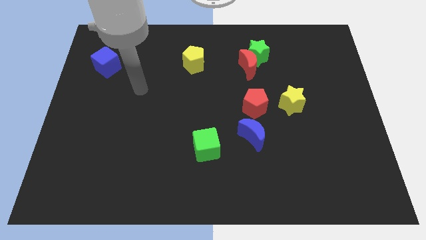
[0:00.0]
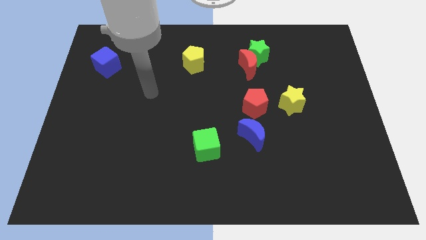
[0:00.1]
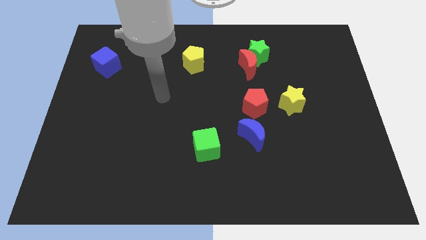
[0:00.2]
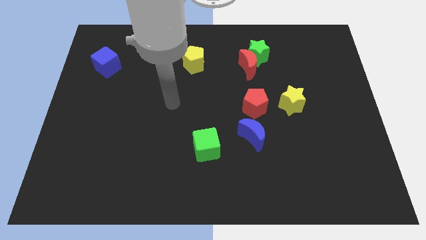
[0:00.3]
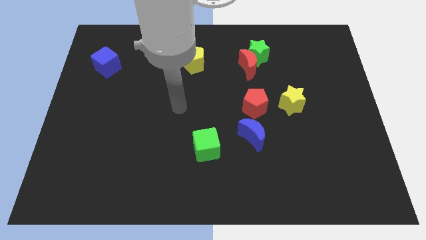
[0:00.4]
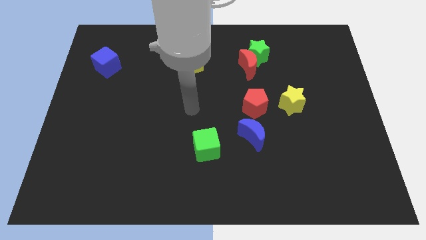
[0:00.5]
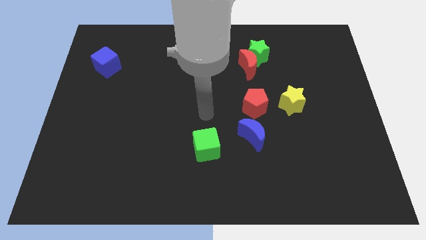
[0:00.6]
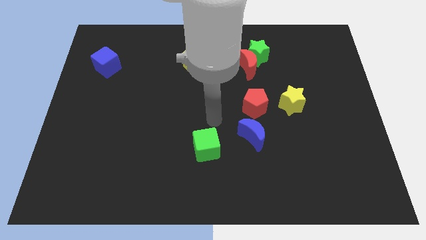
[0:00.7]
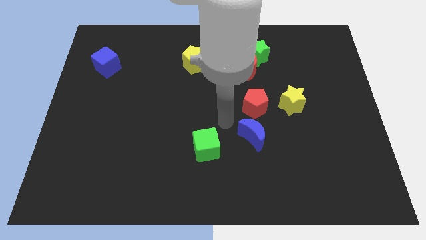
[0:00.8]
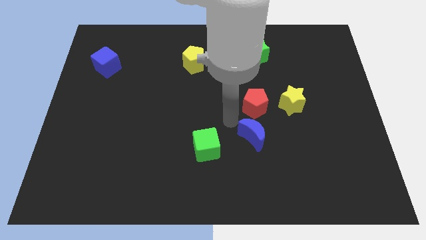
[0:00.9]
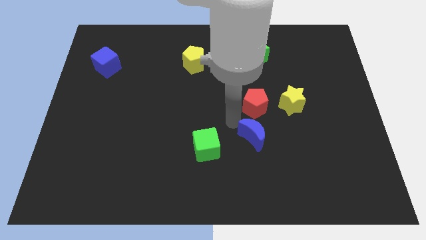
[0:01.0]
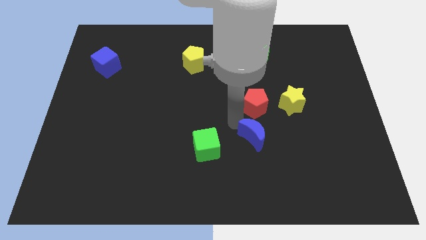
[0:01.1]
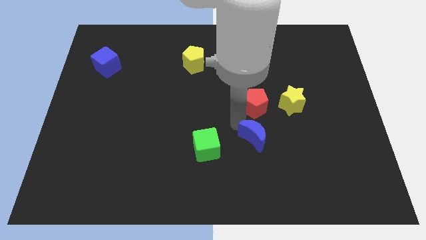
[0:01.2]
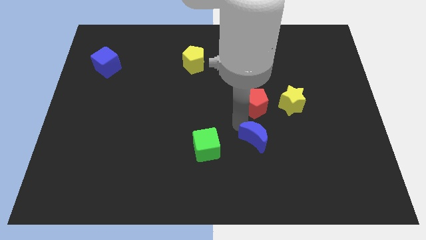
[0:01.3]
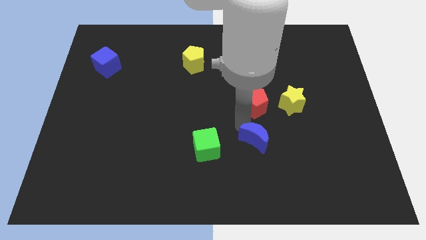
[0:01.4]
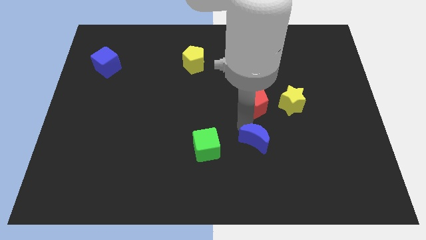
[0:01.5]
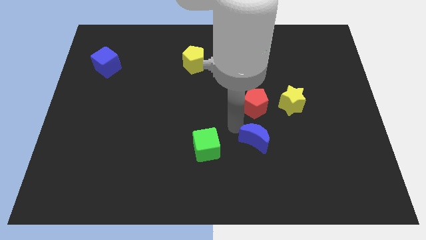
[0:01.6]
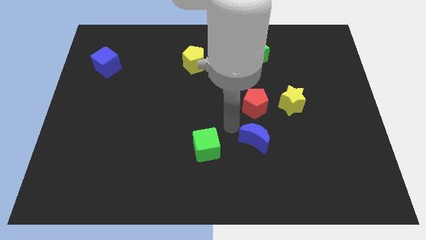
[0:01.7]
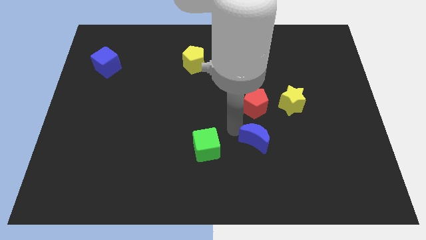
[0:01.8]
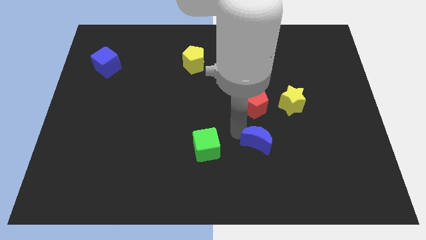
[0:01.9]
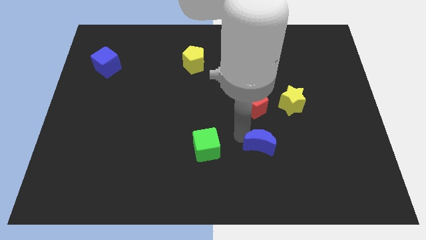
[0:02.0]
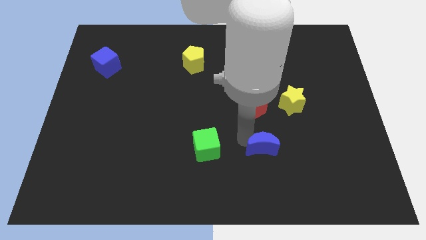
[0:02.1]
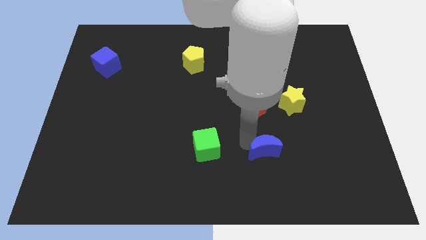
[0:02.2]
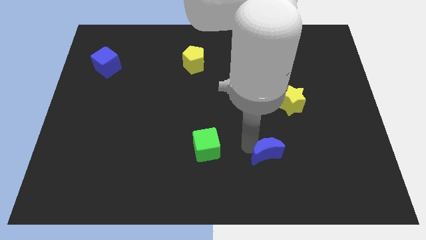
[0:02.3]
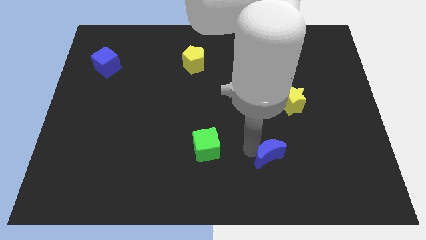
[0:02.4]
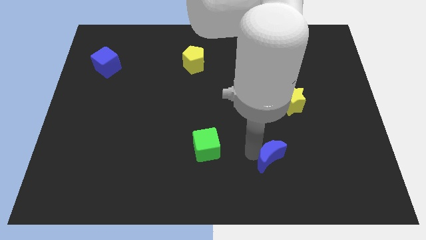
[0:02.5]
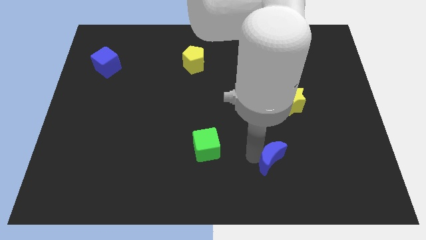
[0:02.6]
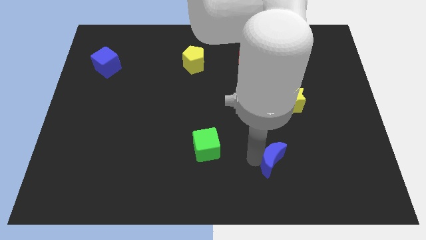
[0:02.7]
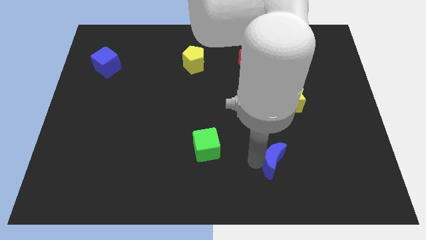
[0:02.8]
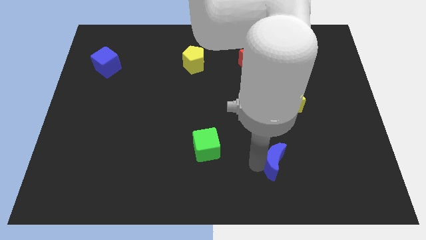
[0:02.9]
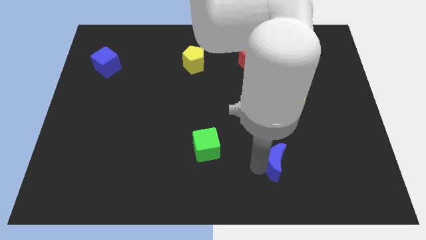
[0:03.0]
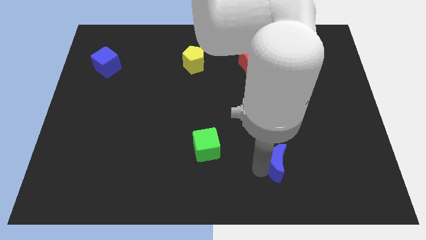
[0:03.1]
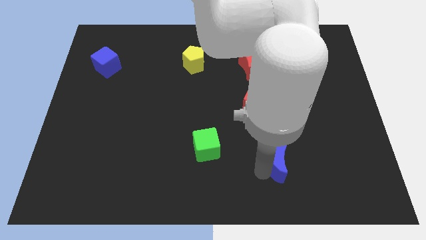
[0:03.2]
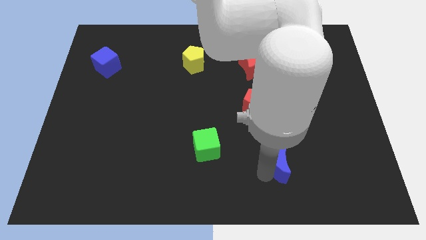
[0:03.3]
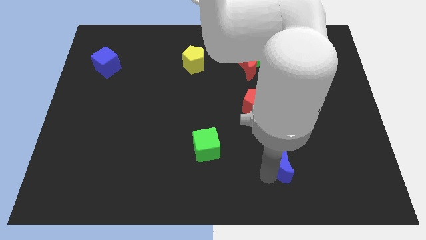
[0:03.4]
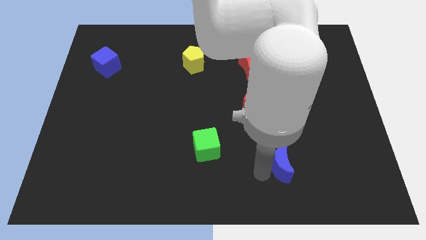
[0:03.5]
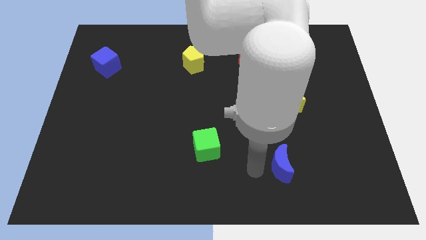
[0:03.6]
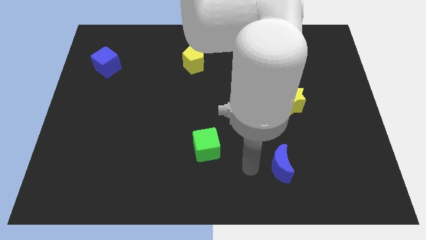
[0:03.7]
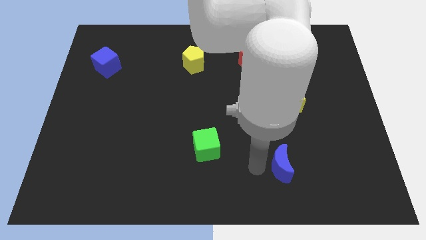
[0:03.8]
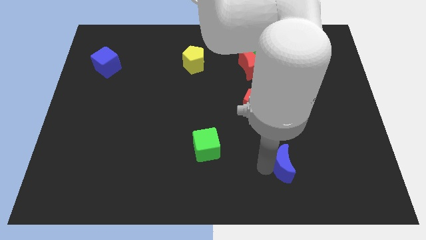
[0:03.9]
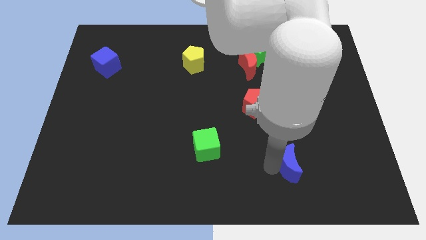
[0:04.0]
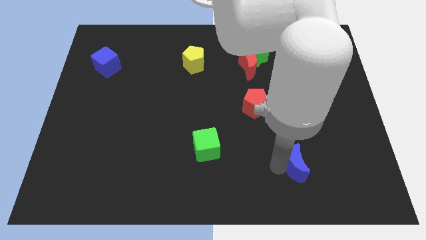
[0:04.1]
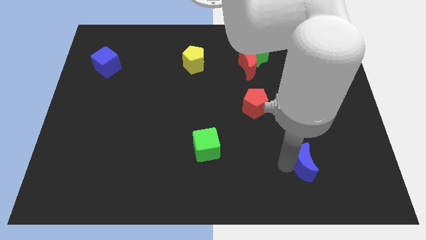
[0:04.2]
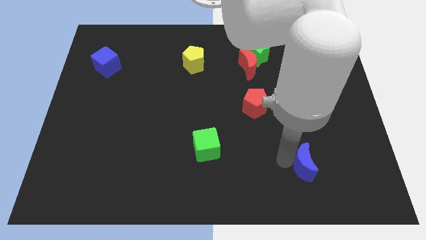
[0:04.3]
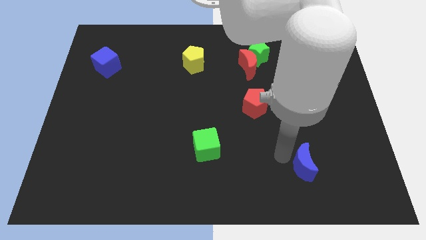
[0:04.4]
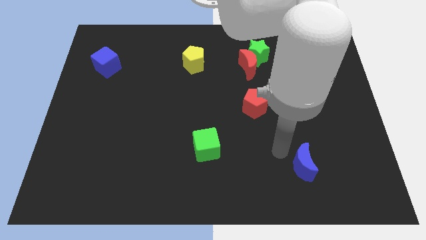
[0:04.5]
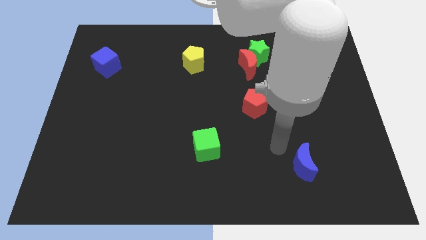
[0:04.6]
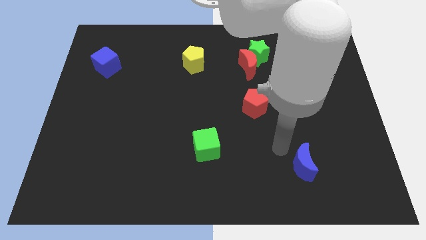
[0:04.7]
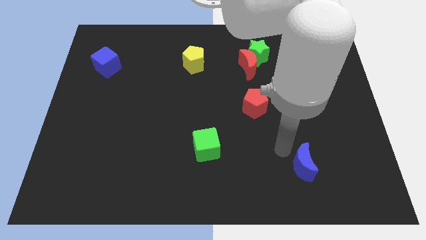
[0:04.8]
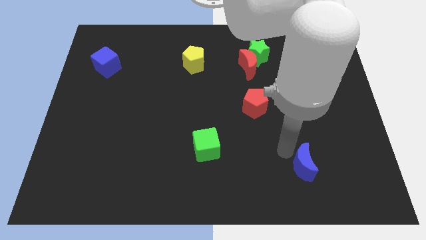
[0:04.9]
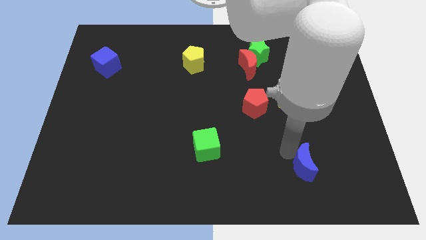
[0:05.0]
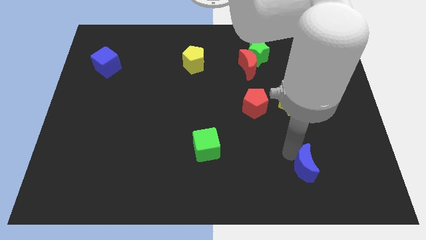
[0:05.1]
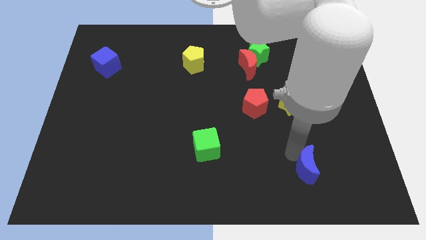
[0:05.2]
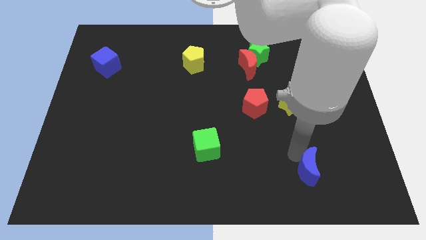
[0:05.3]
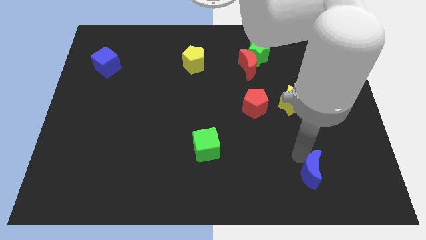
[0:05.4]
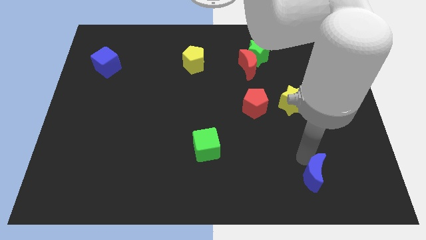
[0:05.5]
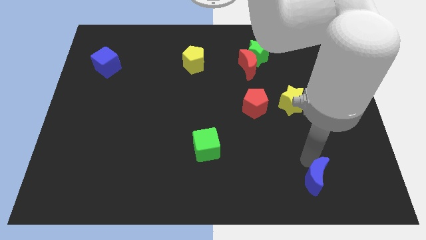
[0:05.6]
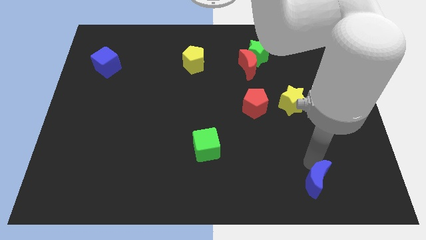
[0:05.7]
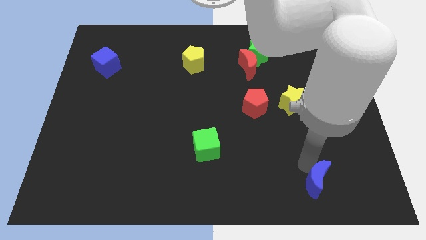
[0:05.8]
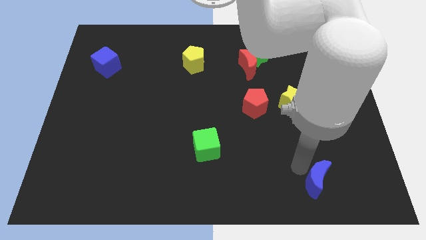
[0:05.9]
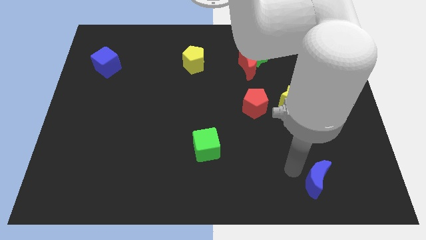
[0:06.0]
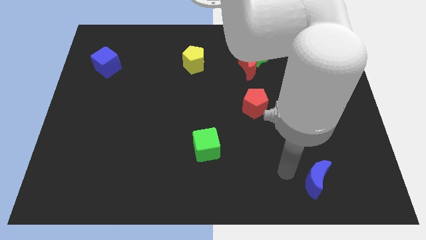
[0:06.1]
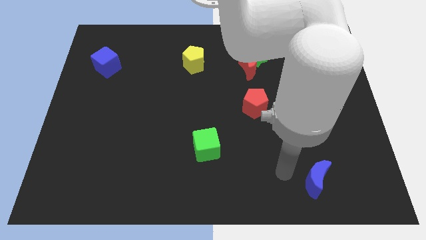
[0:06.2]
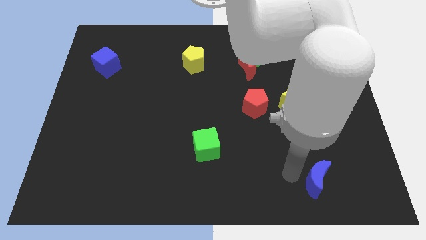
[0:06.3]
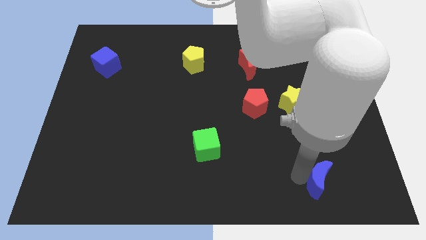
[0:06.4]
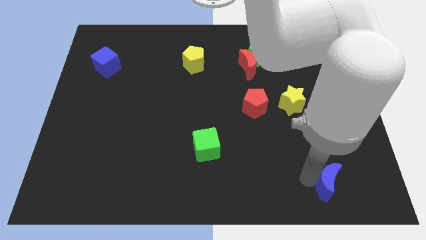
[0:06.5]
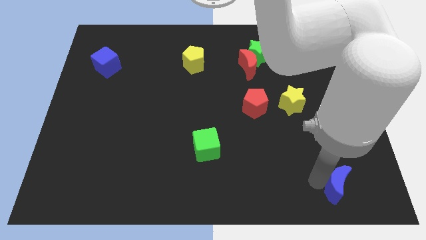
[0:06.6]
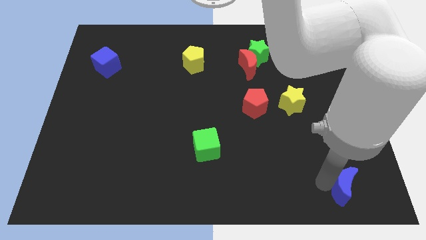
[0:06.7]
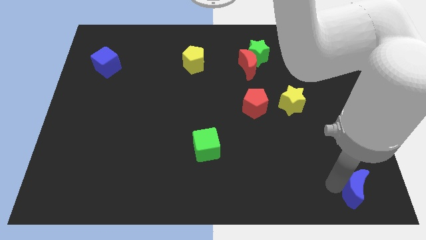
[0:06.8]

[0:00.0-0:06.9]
push the blue moon to the lower right corner
